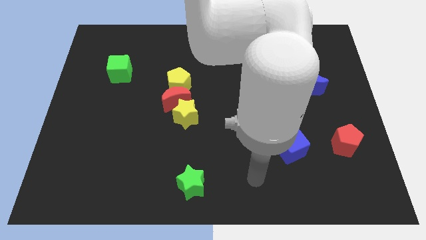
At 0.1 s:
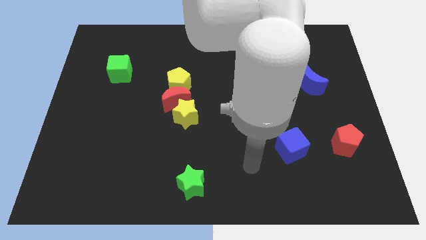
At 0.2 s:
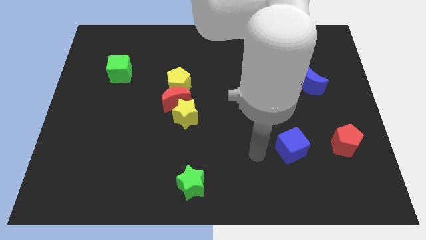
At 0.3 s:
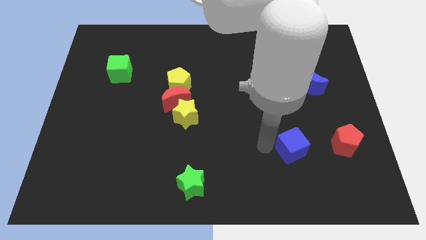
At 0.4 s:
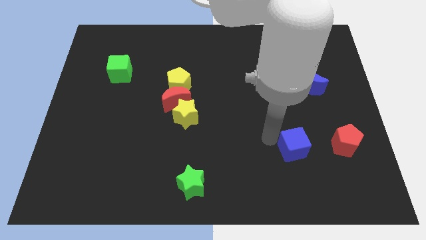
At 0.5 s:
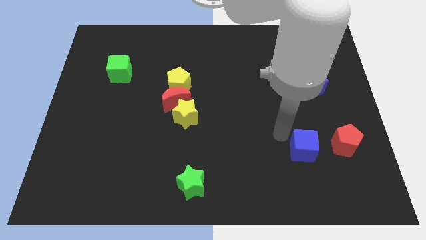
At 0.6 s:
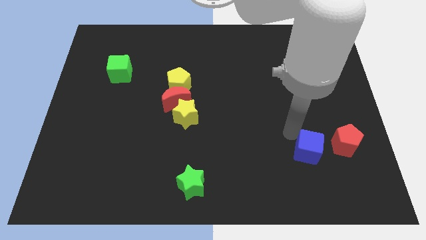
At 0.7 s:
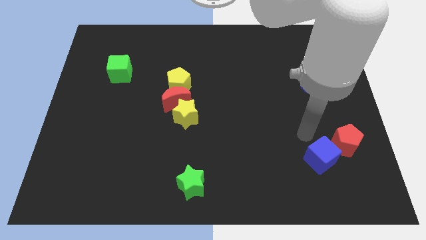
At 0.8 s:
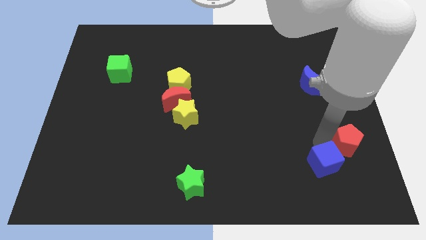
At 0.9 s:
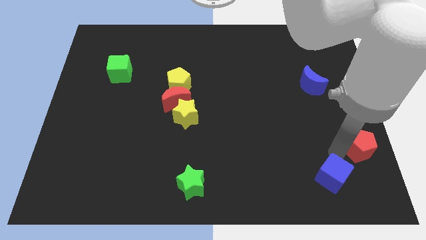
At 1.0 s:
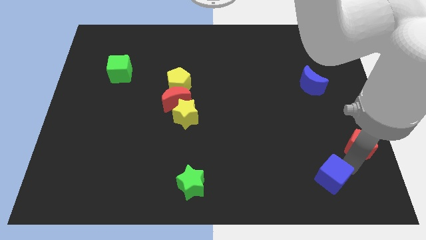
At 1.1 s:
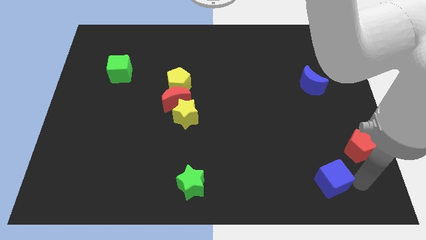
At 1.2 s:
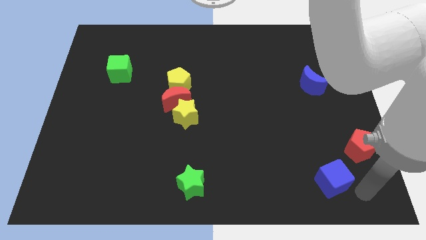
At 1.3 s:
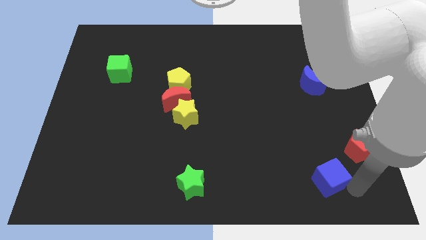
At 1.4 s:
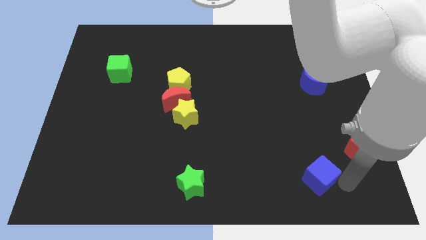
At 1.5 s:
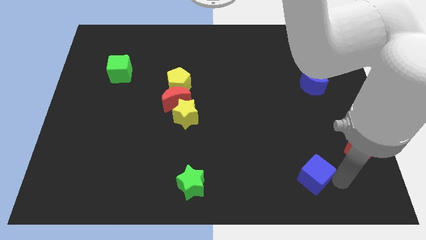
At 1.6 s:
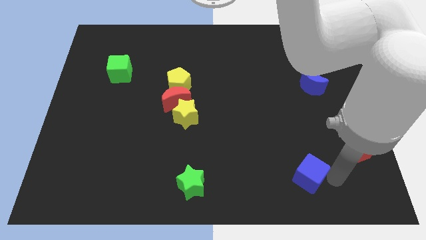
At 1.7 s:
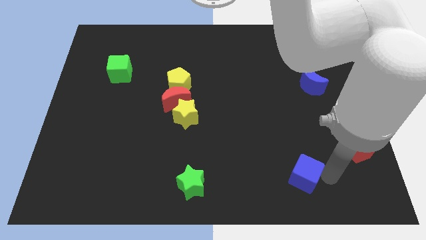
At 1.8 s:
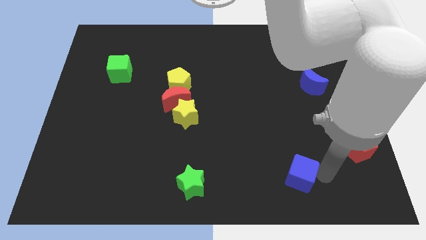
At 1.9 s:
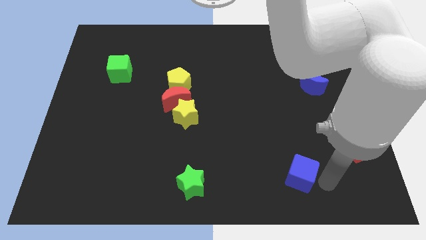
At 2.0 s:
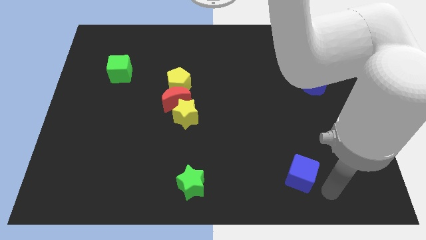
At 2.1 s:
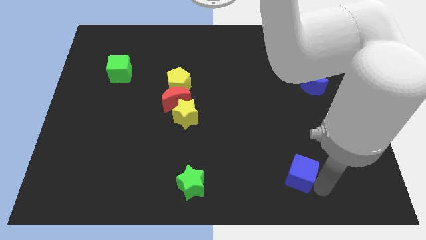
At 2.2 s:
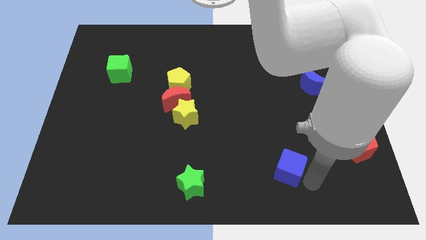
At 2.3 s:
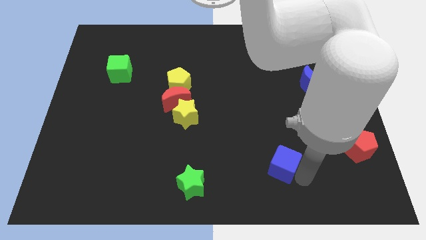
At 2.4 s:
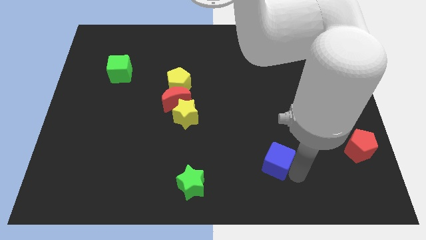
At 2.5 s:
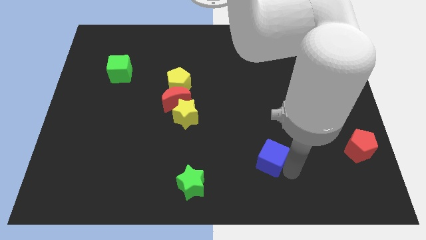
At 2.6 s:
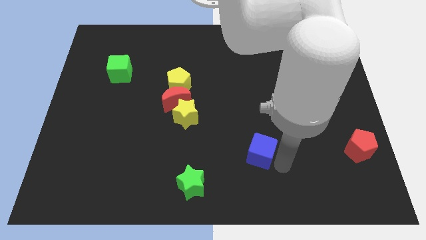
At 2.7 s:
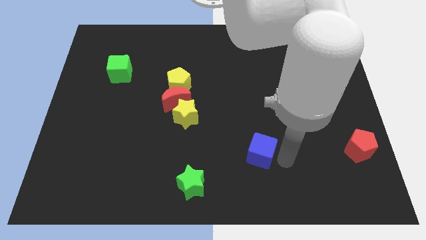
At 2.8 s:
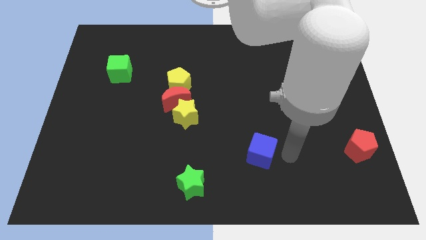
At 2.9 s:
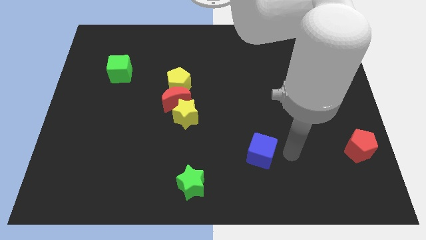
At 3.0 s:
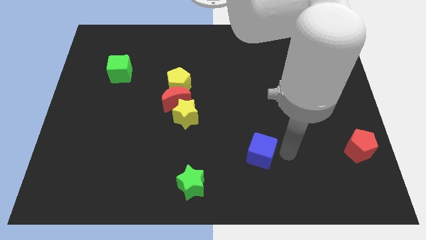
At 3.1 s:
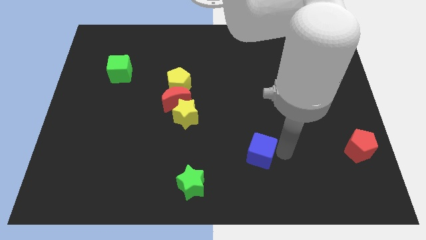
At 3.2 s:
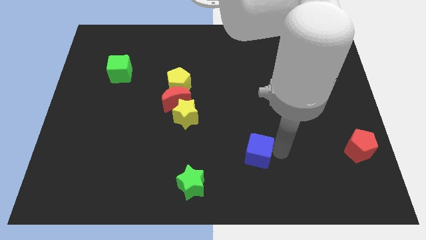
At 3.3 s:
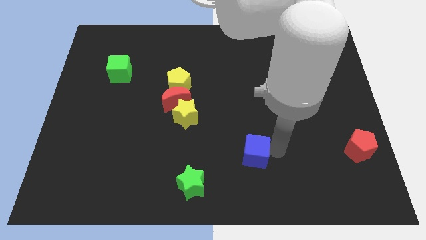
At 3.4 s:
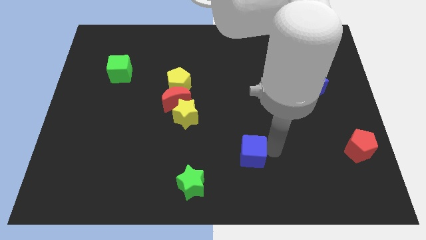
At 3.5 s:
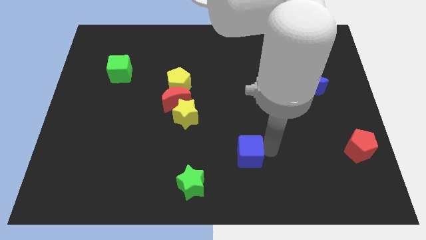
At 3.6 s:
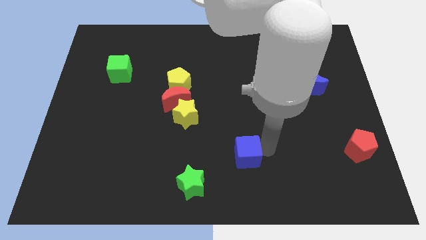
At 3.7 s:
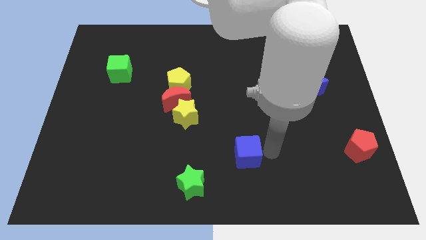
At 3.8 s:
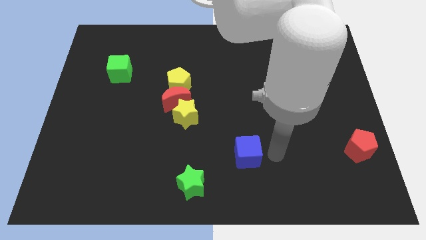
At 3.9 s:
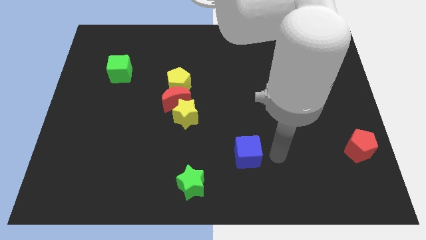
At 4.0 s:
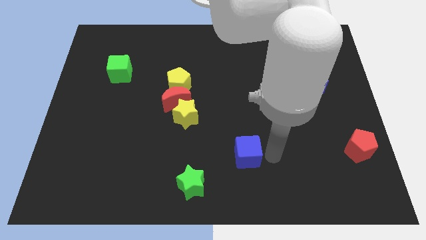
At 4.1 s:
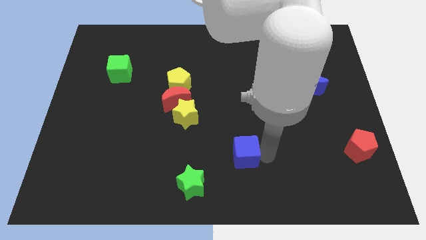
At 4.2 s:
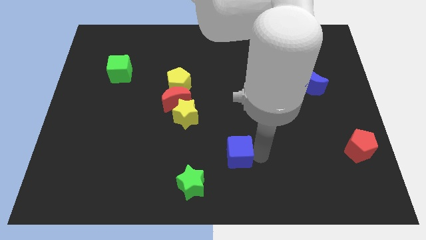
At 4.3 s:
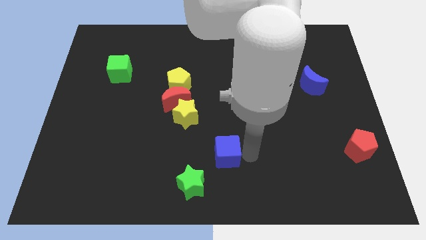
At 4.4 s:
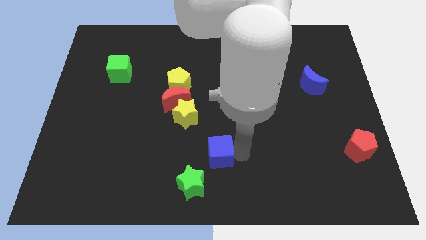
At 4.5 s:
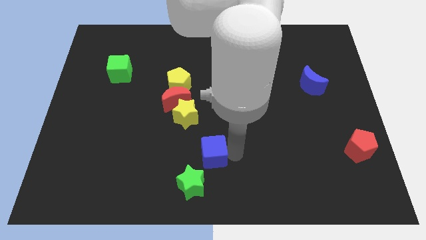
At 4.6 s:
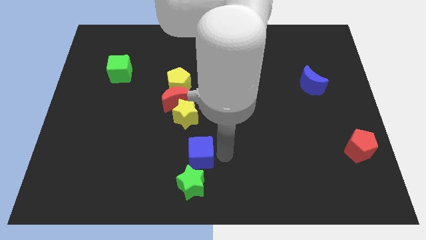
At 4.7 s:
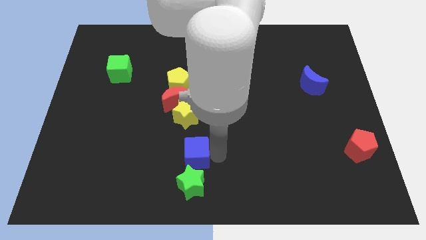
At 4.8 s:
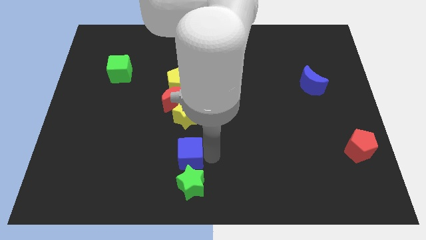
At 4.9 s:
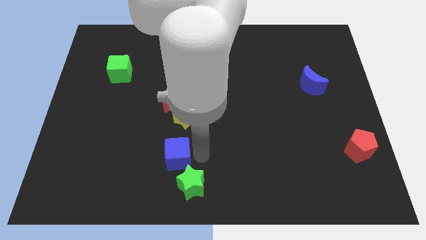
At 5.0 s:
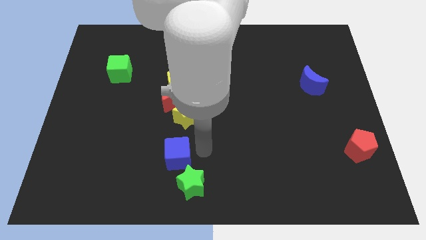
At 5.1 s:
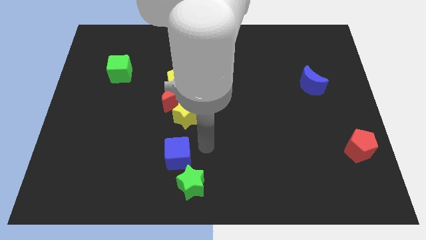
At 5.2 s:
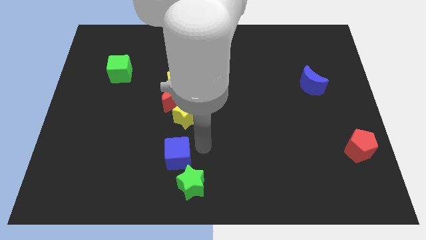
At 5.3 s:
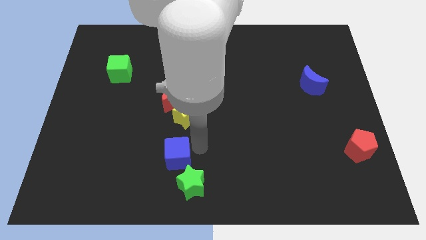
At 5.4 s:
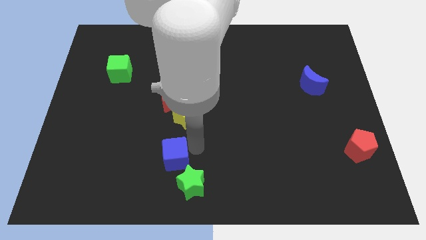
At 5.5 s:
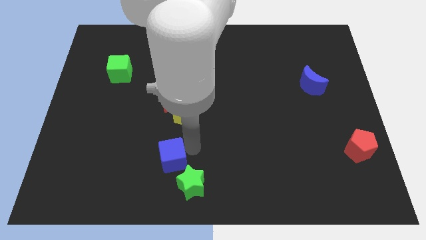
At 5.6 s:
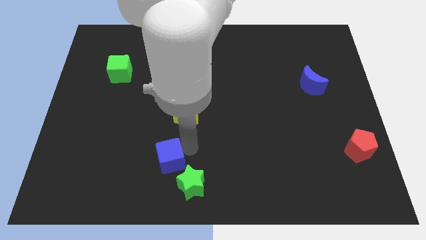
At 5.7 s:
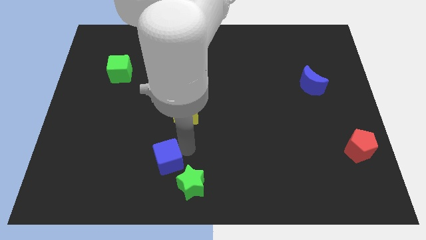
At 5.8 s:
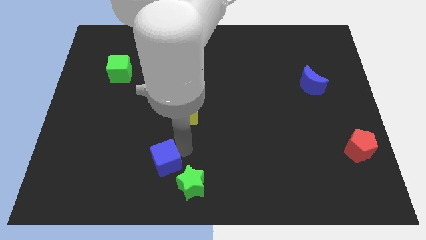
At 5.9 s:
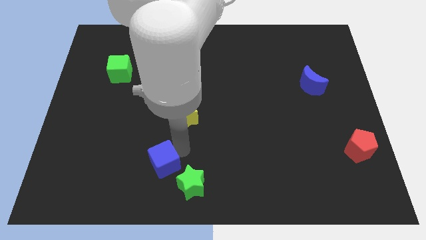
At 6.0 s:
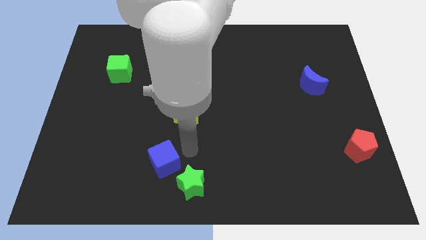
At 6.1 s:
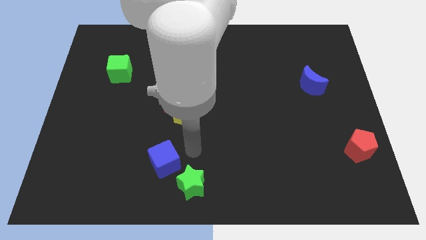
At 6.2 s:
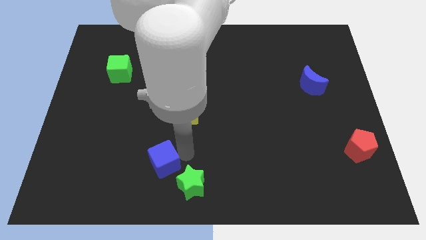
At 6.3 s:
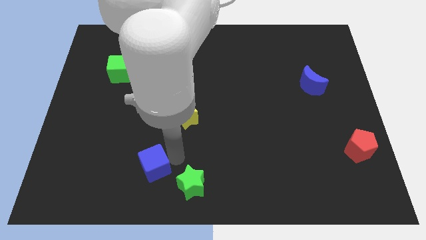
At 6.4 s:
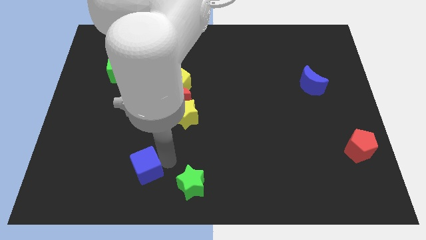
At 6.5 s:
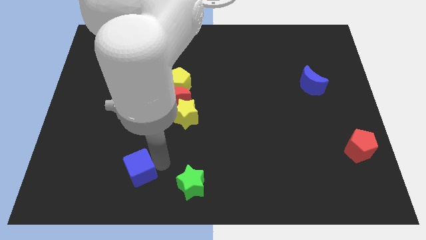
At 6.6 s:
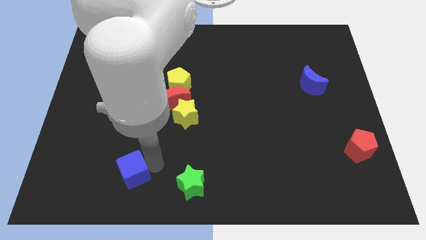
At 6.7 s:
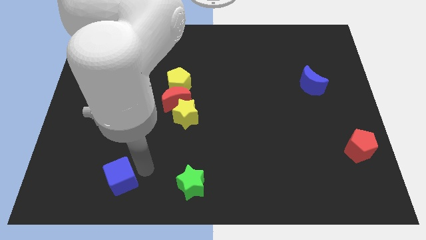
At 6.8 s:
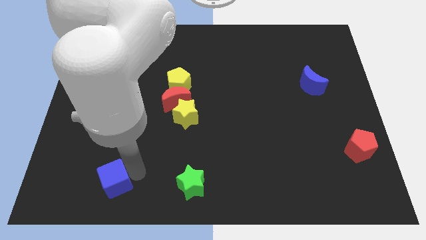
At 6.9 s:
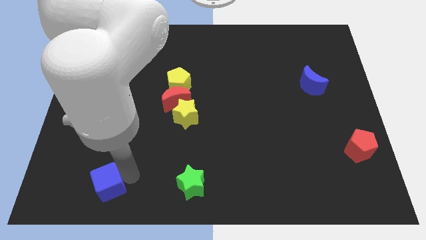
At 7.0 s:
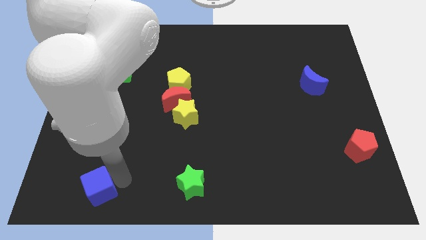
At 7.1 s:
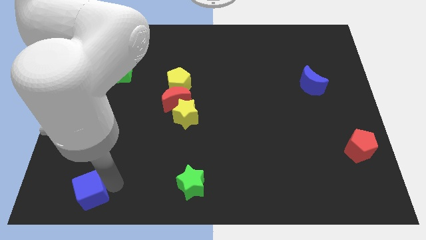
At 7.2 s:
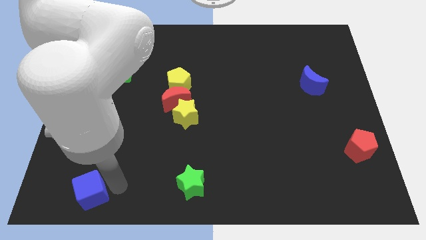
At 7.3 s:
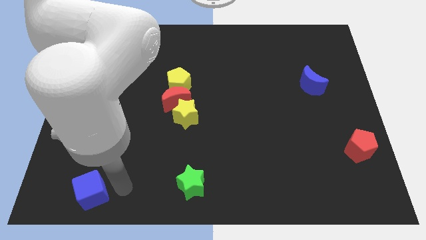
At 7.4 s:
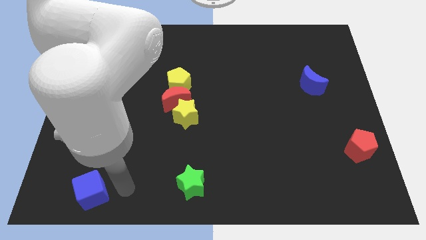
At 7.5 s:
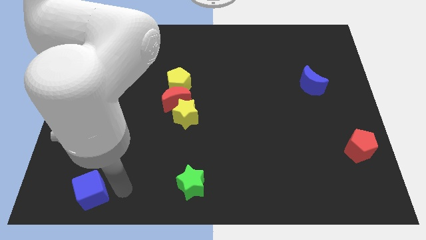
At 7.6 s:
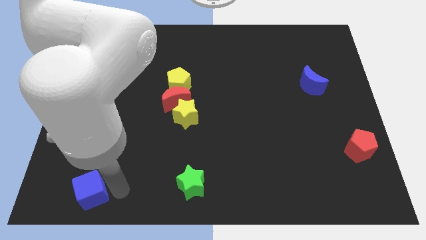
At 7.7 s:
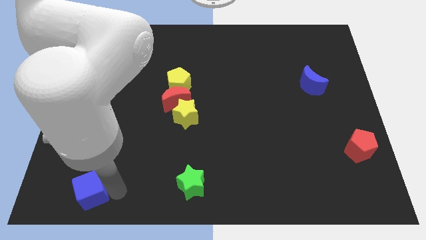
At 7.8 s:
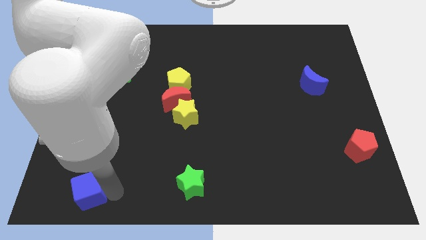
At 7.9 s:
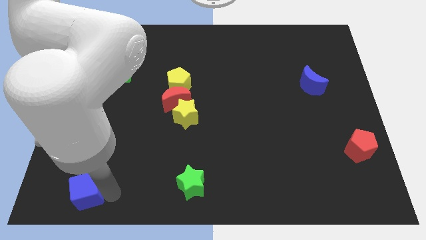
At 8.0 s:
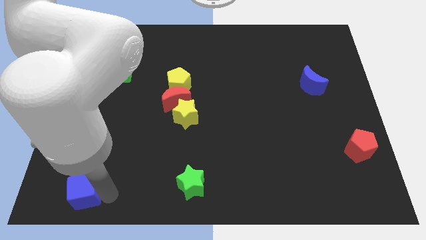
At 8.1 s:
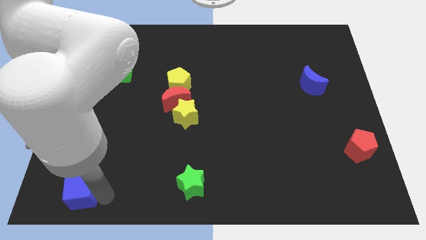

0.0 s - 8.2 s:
put the blue cube to the lower left corner
